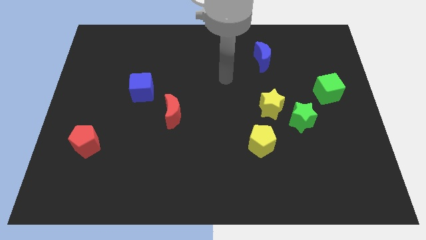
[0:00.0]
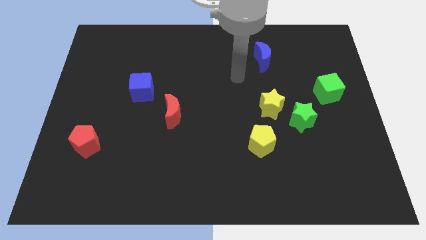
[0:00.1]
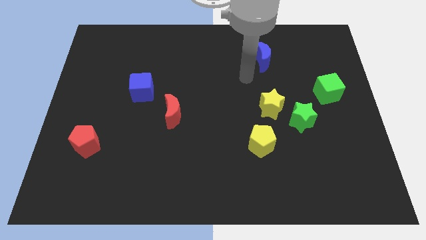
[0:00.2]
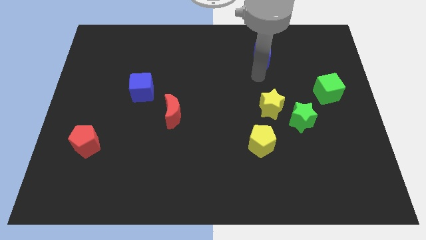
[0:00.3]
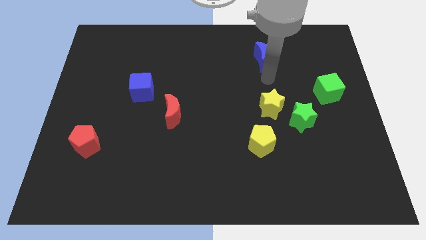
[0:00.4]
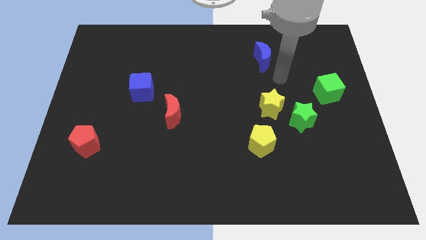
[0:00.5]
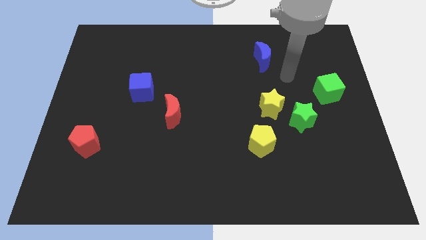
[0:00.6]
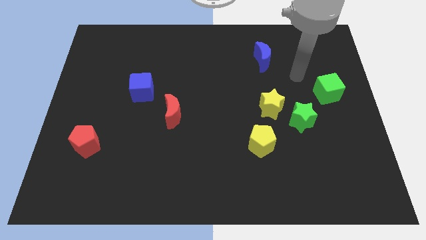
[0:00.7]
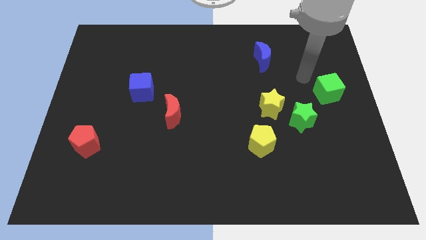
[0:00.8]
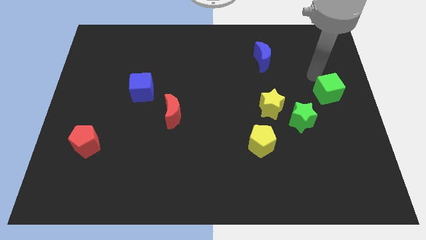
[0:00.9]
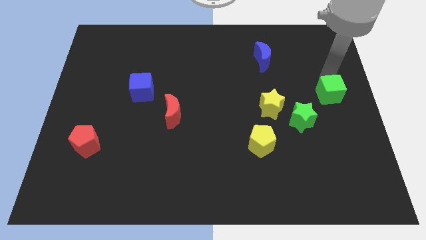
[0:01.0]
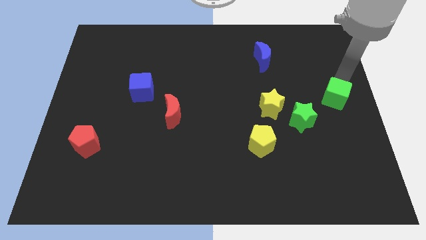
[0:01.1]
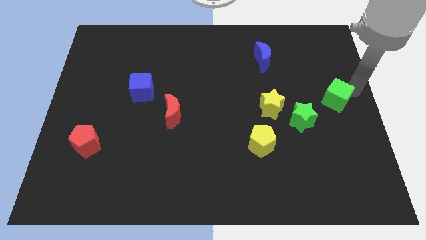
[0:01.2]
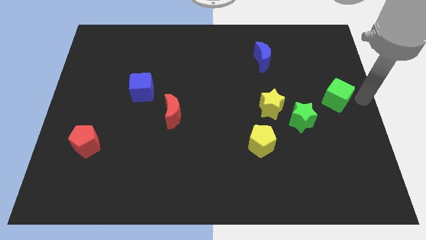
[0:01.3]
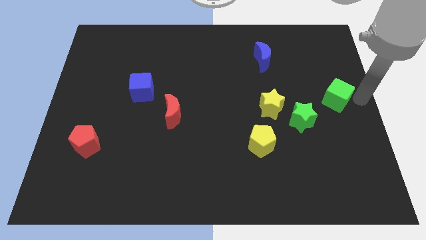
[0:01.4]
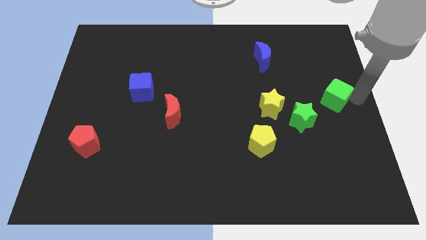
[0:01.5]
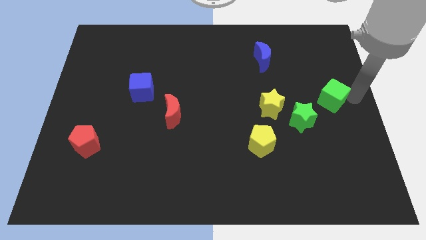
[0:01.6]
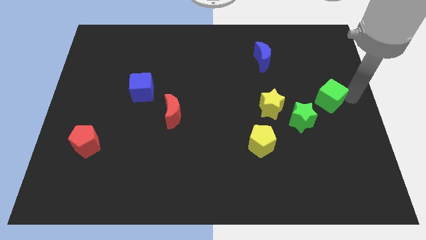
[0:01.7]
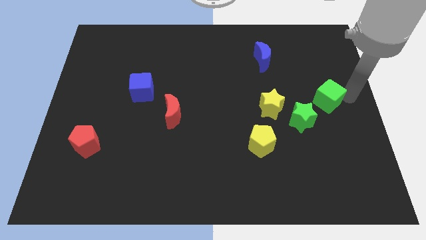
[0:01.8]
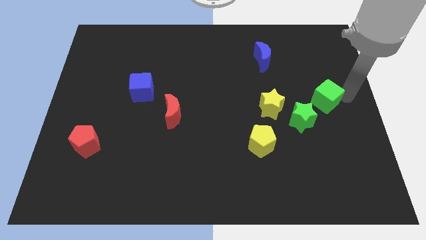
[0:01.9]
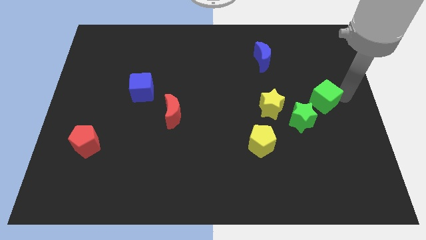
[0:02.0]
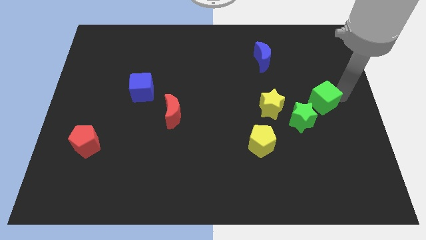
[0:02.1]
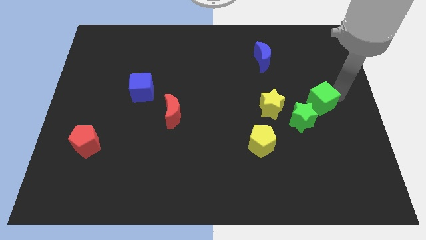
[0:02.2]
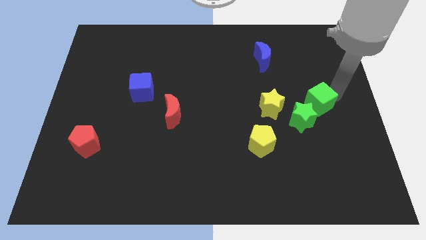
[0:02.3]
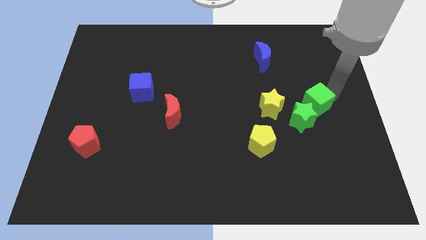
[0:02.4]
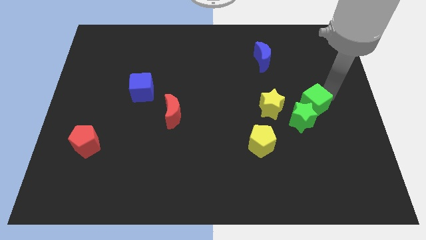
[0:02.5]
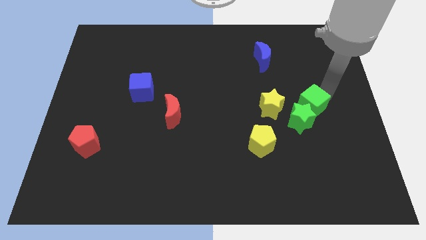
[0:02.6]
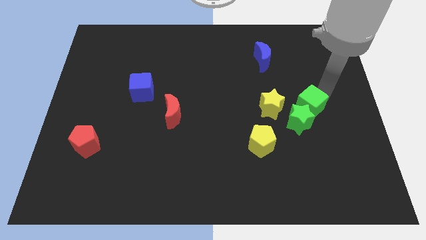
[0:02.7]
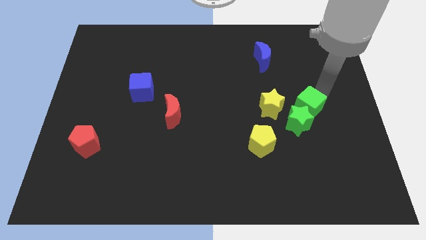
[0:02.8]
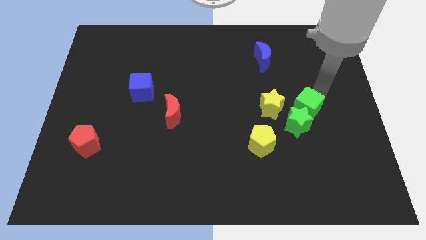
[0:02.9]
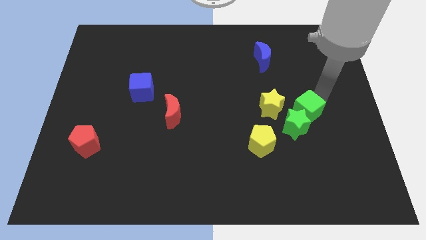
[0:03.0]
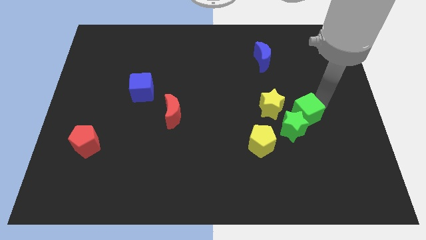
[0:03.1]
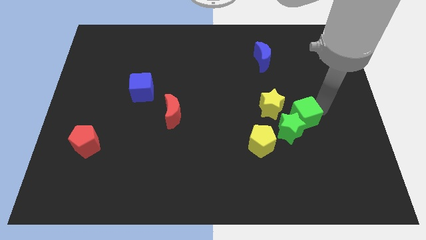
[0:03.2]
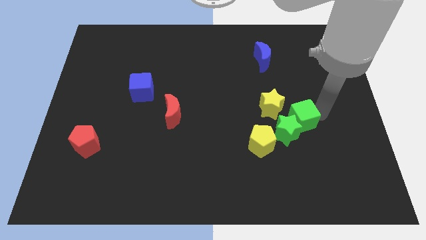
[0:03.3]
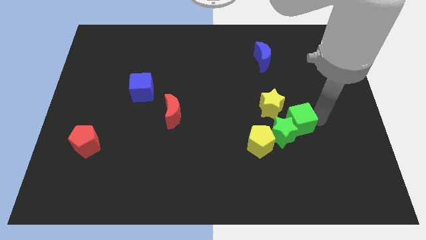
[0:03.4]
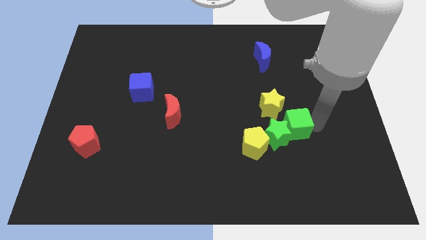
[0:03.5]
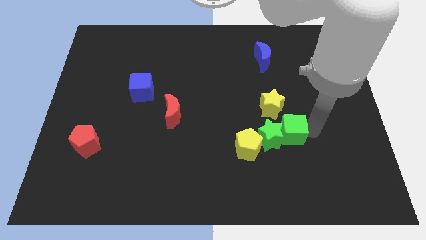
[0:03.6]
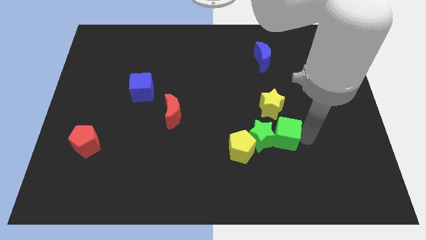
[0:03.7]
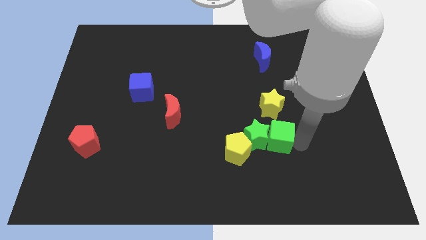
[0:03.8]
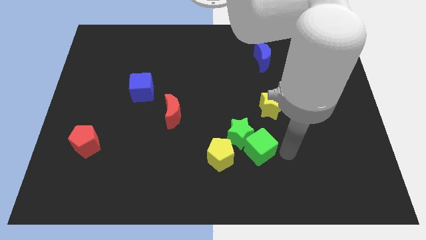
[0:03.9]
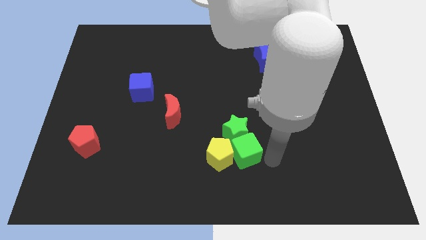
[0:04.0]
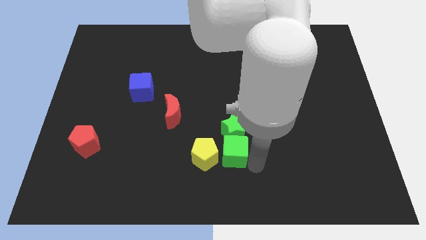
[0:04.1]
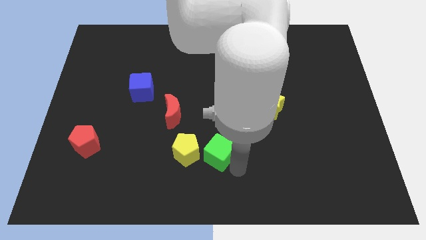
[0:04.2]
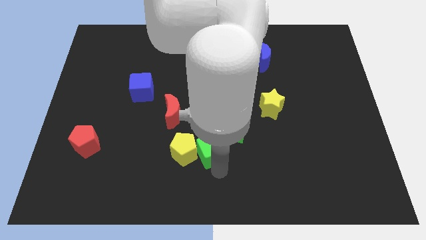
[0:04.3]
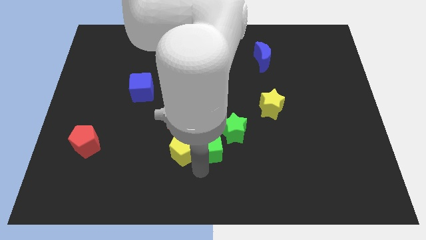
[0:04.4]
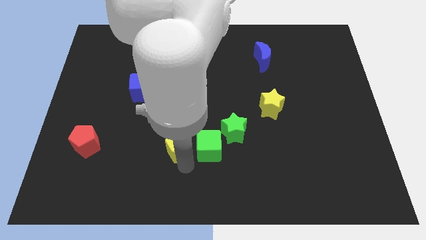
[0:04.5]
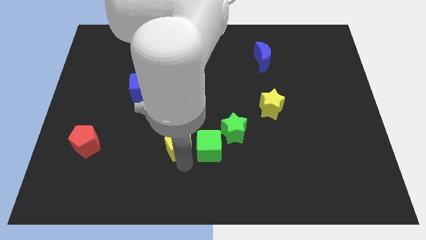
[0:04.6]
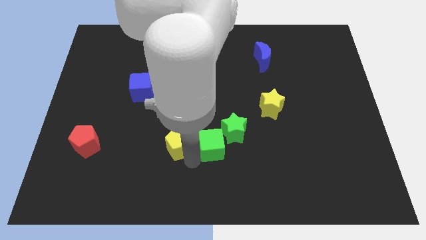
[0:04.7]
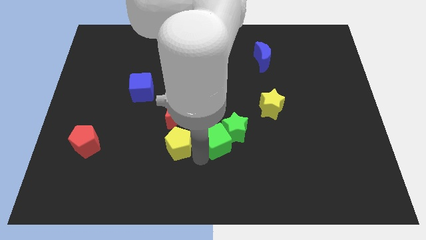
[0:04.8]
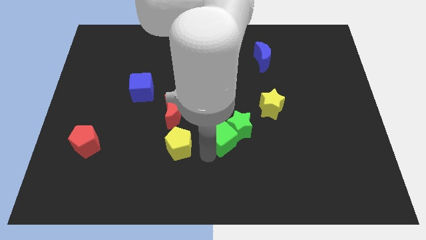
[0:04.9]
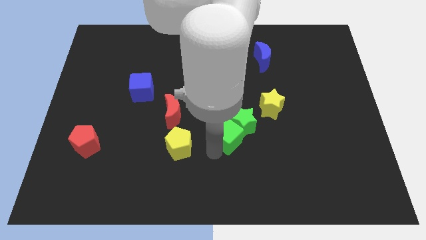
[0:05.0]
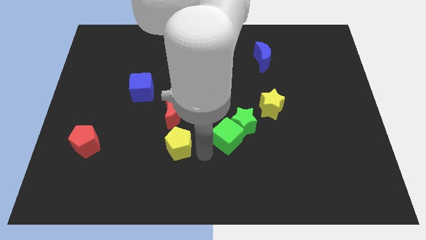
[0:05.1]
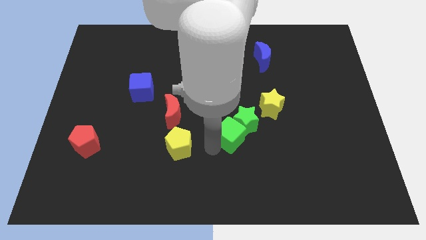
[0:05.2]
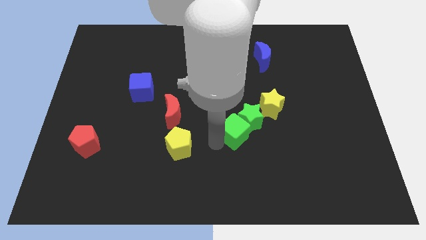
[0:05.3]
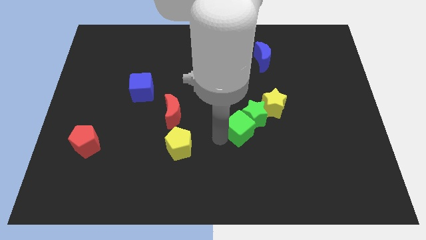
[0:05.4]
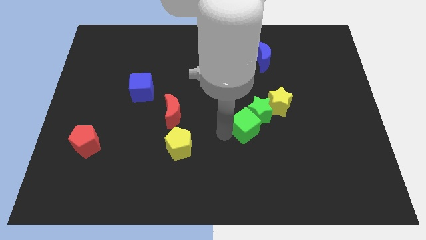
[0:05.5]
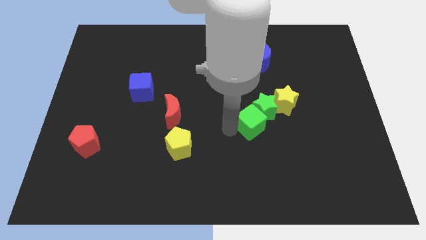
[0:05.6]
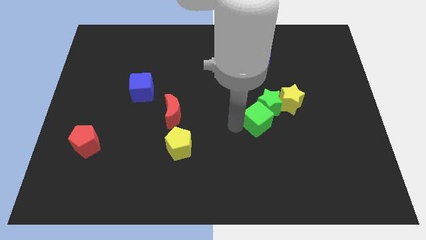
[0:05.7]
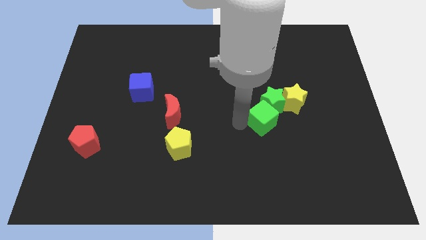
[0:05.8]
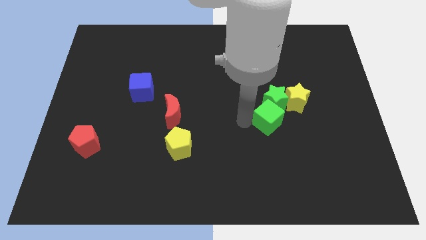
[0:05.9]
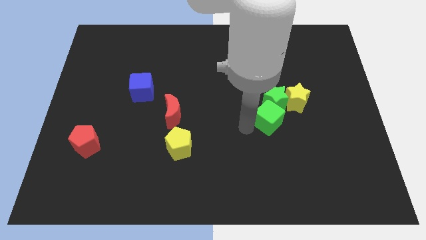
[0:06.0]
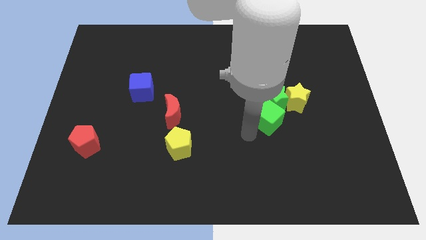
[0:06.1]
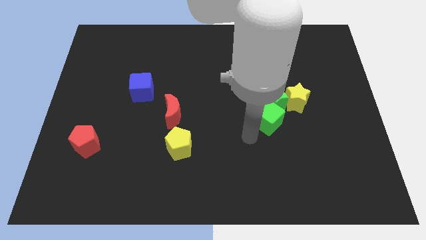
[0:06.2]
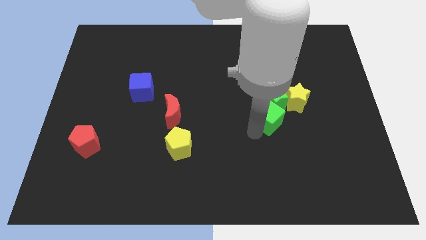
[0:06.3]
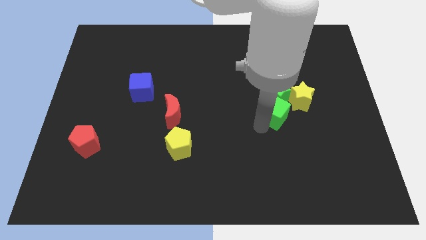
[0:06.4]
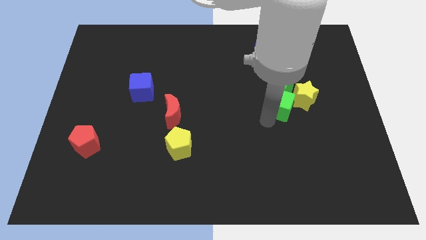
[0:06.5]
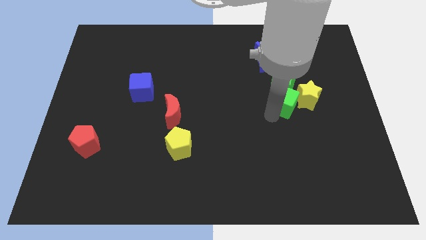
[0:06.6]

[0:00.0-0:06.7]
slide the green cube next to the yellow star

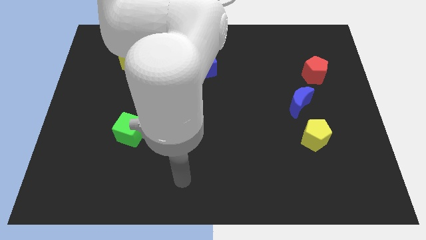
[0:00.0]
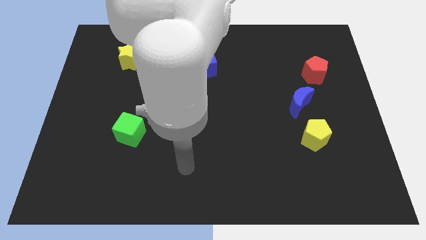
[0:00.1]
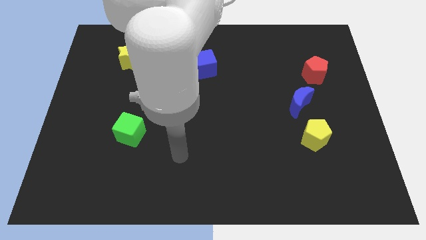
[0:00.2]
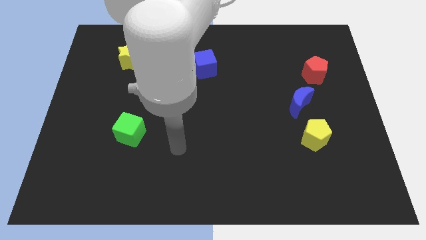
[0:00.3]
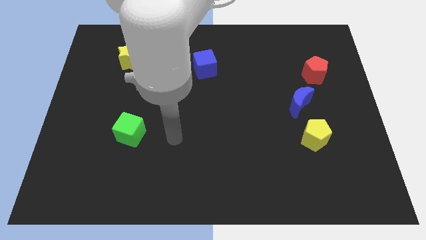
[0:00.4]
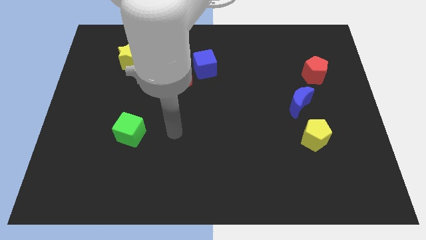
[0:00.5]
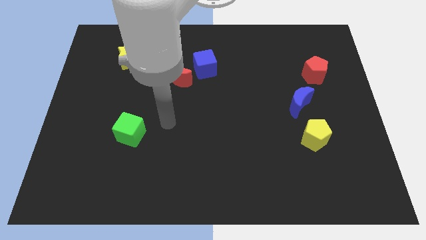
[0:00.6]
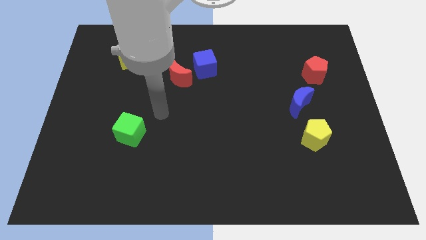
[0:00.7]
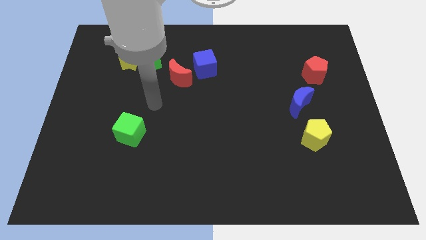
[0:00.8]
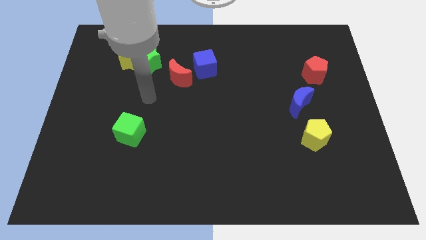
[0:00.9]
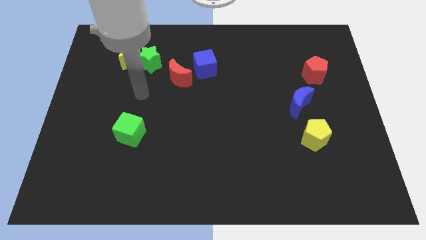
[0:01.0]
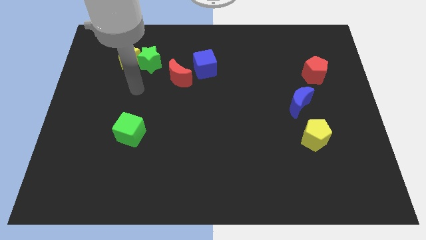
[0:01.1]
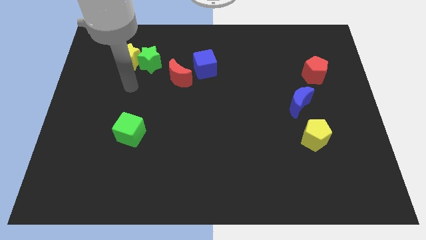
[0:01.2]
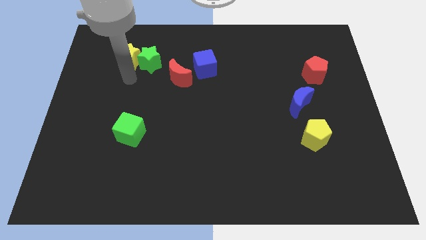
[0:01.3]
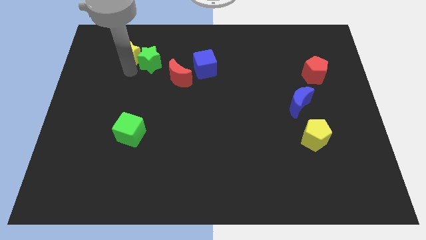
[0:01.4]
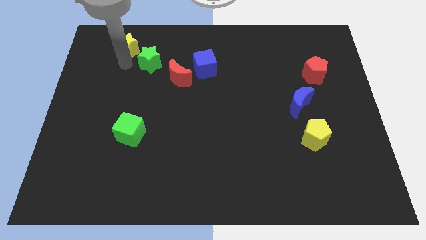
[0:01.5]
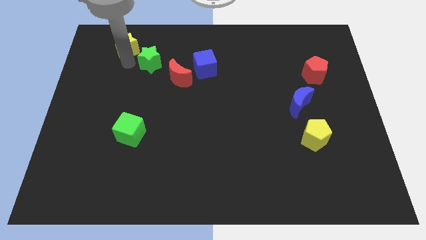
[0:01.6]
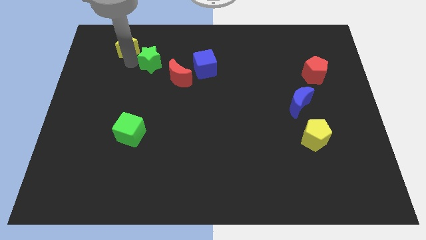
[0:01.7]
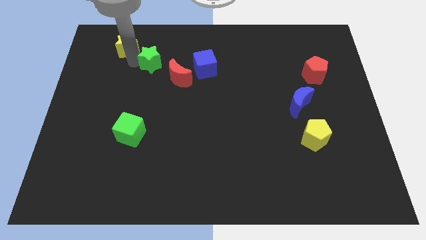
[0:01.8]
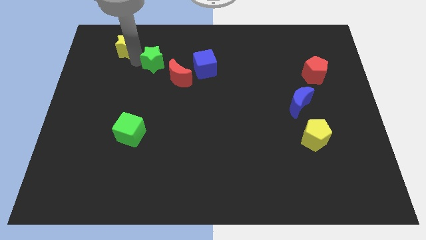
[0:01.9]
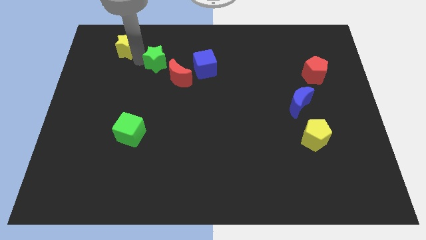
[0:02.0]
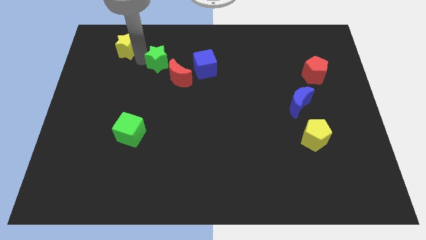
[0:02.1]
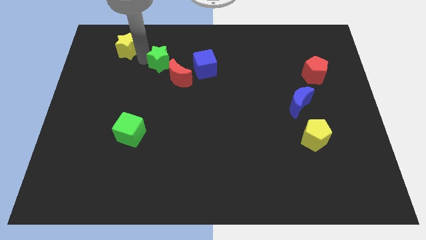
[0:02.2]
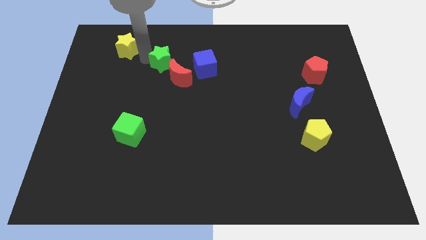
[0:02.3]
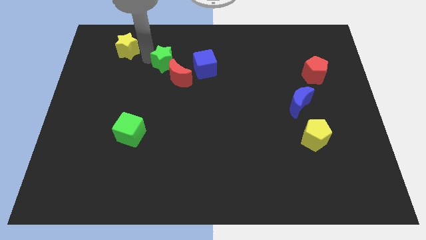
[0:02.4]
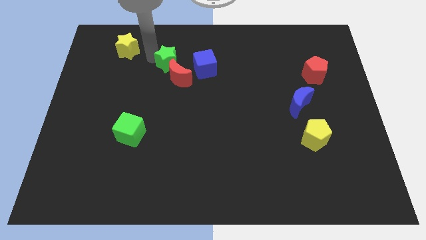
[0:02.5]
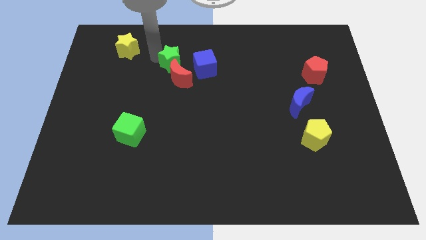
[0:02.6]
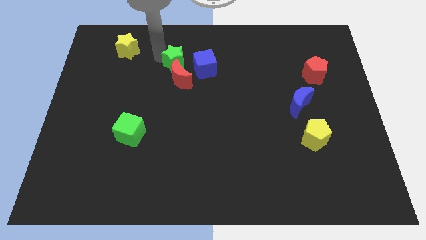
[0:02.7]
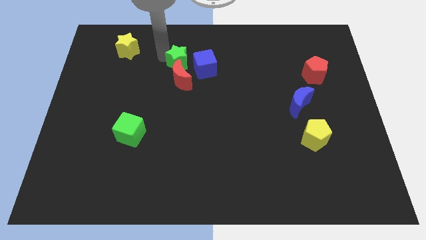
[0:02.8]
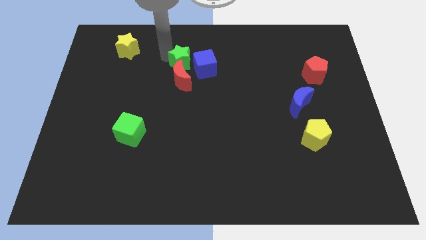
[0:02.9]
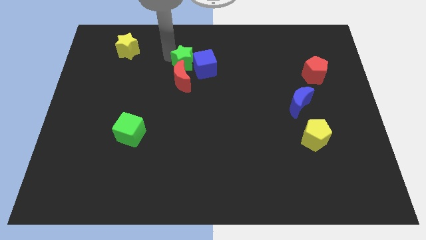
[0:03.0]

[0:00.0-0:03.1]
move the green star to the blue cube
